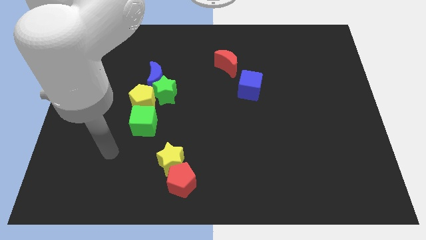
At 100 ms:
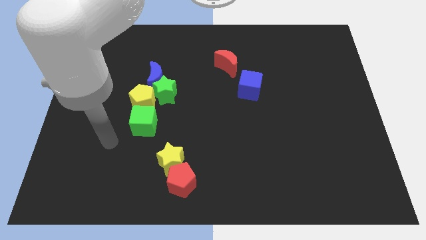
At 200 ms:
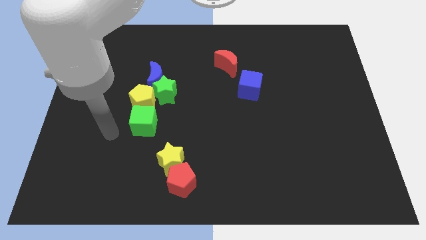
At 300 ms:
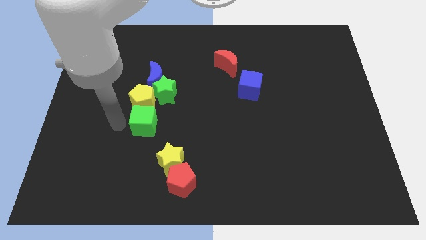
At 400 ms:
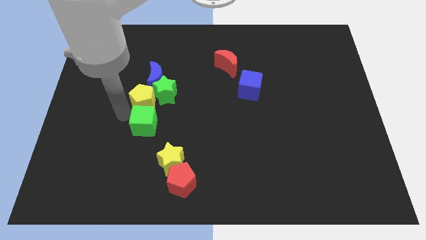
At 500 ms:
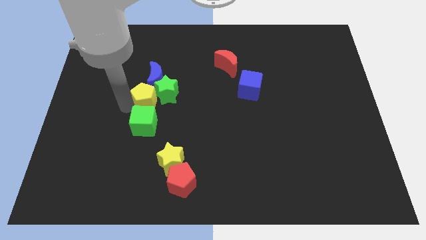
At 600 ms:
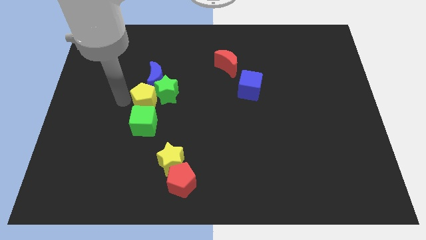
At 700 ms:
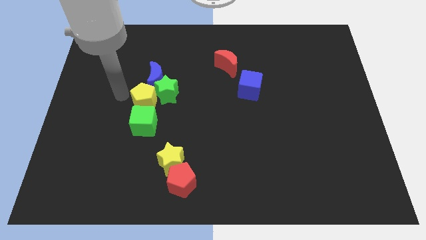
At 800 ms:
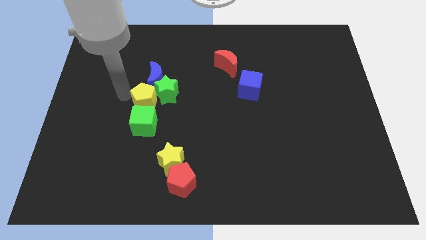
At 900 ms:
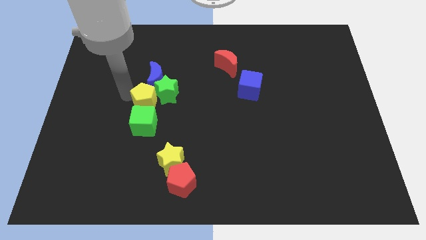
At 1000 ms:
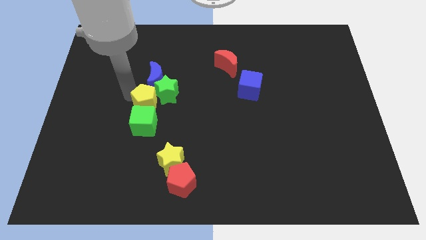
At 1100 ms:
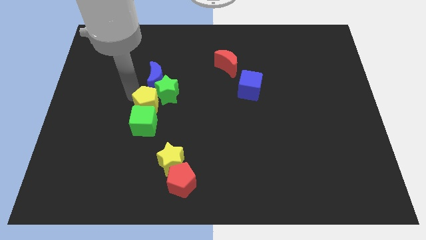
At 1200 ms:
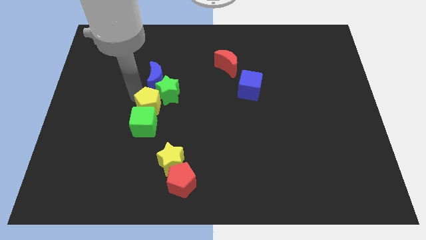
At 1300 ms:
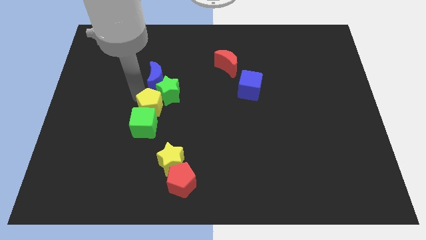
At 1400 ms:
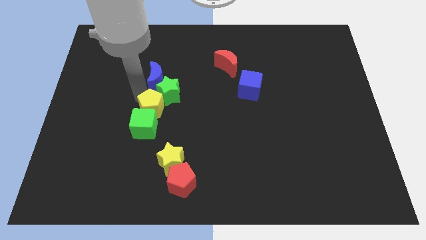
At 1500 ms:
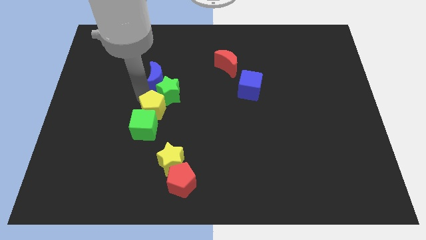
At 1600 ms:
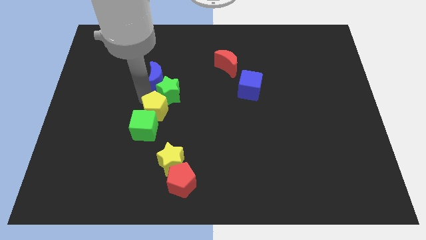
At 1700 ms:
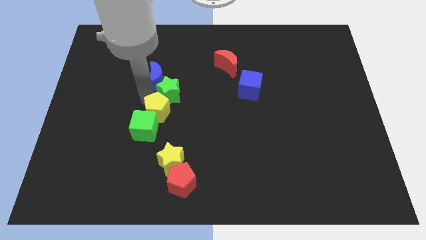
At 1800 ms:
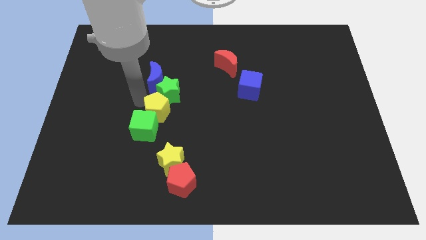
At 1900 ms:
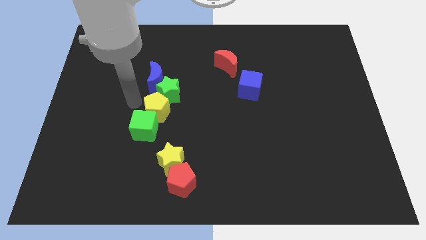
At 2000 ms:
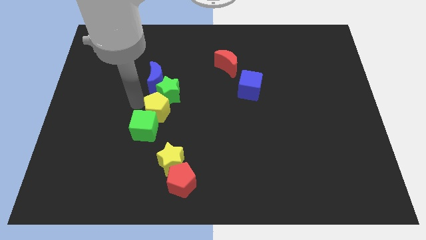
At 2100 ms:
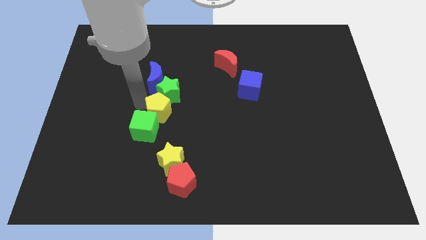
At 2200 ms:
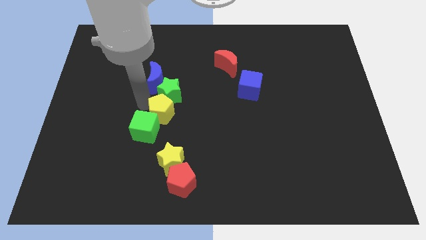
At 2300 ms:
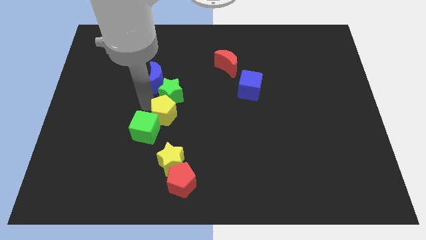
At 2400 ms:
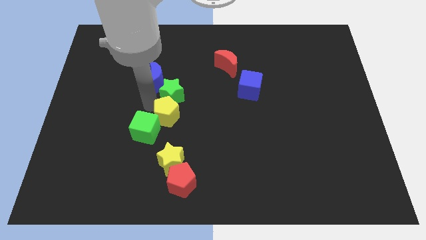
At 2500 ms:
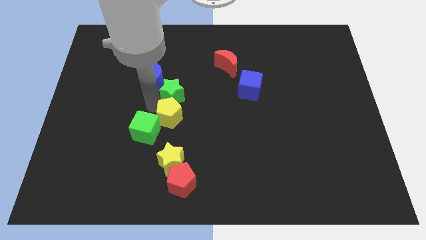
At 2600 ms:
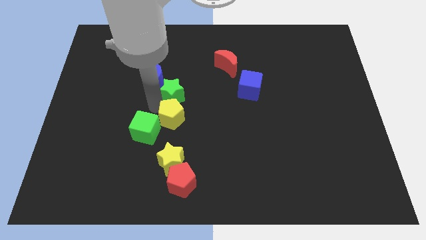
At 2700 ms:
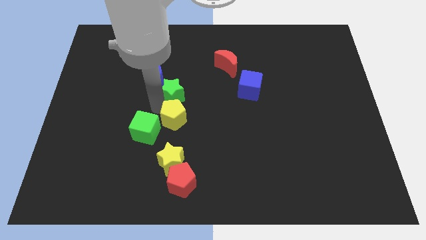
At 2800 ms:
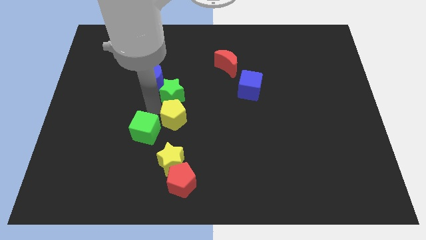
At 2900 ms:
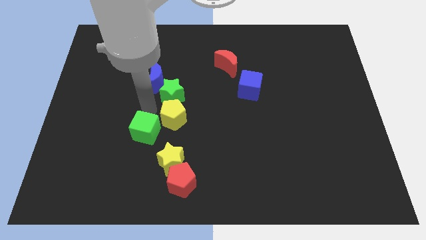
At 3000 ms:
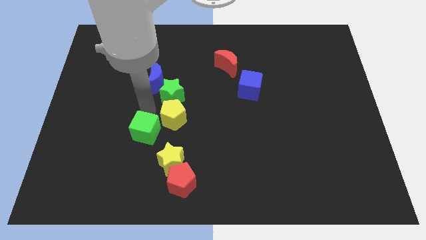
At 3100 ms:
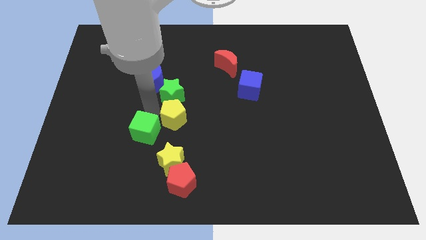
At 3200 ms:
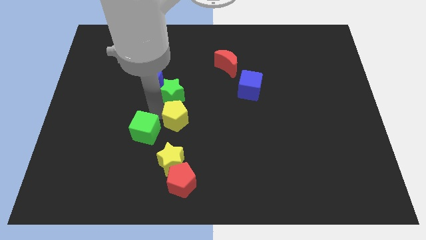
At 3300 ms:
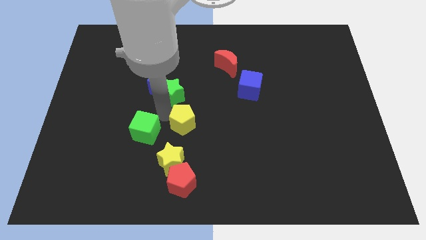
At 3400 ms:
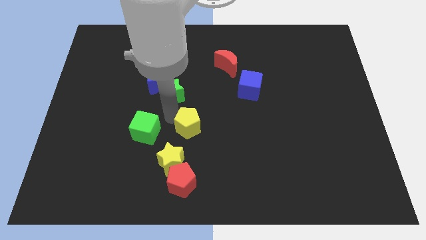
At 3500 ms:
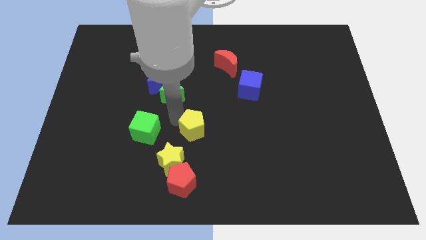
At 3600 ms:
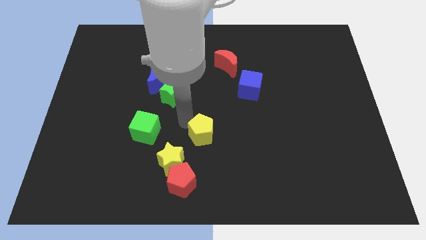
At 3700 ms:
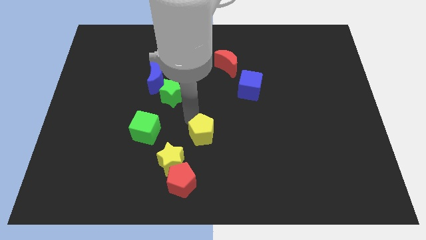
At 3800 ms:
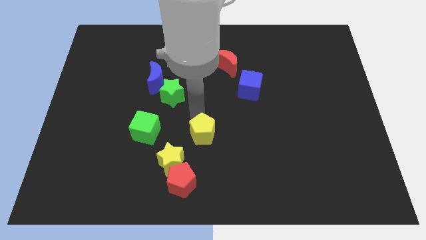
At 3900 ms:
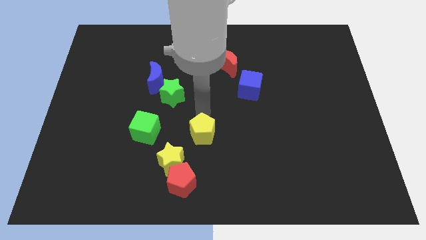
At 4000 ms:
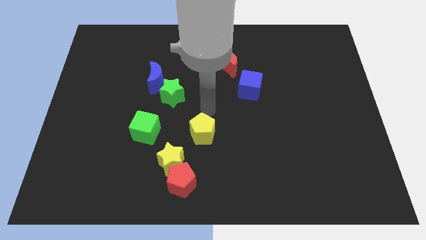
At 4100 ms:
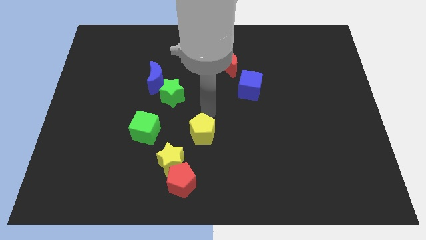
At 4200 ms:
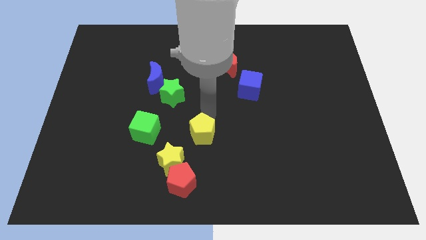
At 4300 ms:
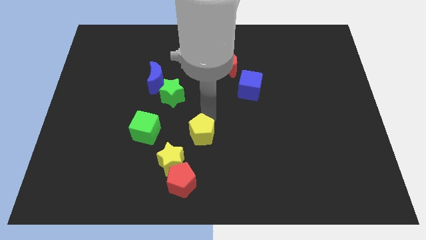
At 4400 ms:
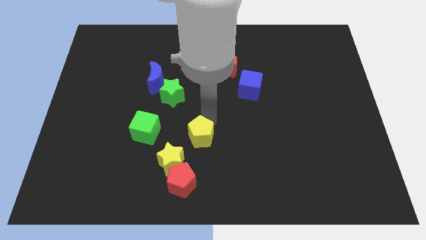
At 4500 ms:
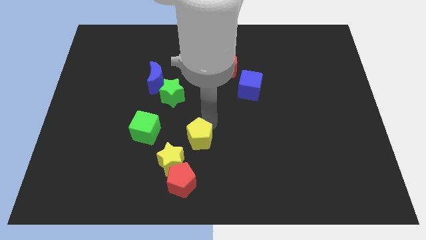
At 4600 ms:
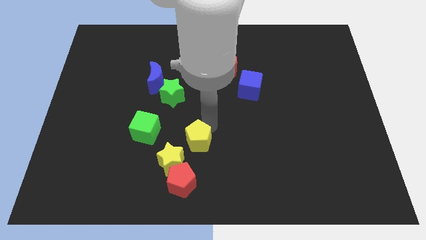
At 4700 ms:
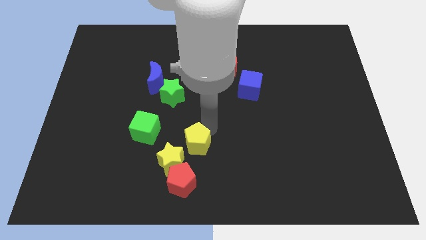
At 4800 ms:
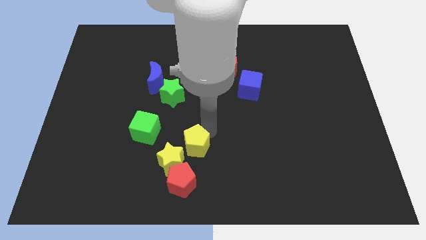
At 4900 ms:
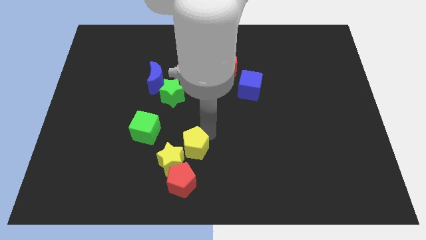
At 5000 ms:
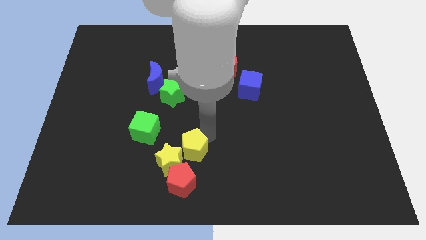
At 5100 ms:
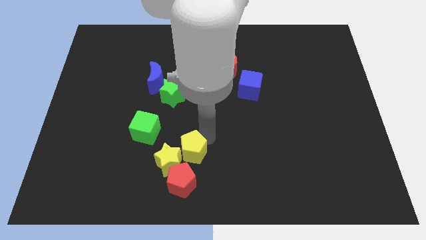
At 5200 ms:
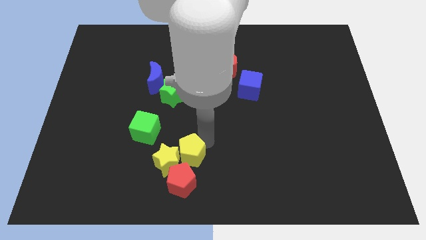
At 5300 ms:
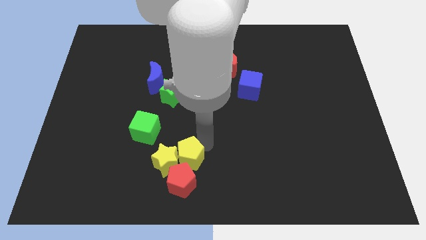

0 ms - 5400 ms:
push the yellow pentagon towards the red pentagon

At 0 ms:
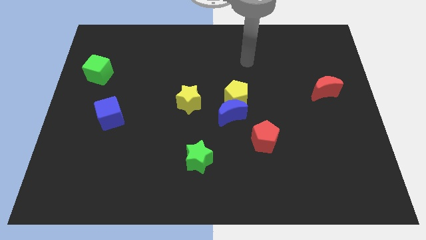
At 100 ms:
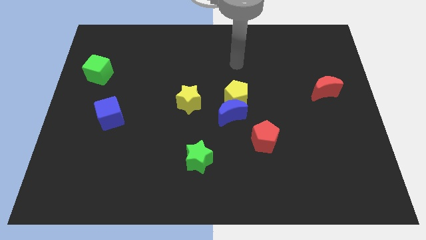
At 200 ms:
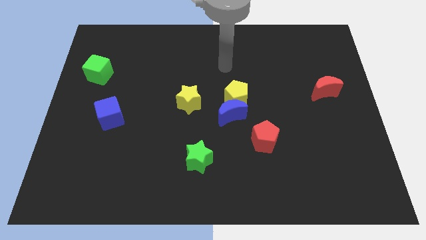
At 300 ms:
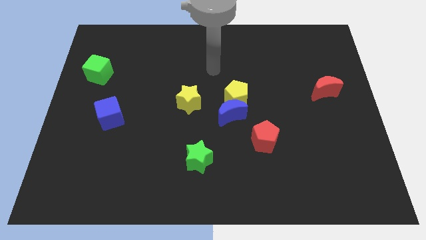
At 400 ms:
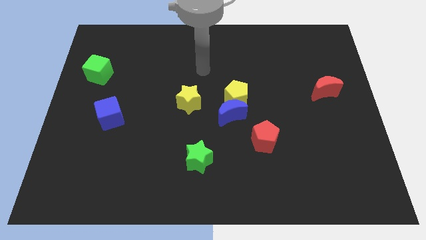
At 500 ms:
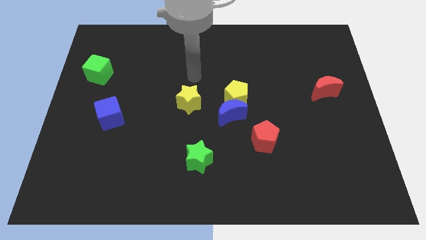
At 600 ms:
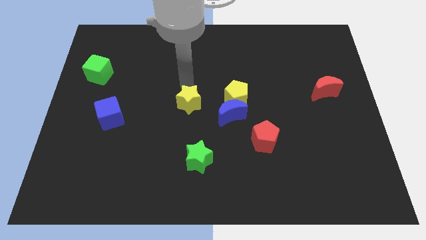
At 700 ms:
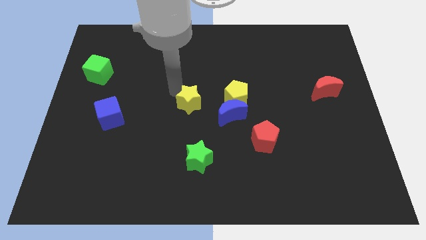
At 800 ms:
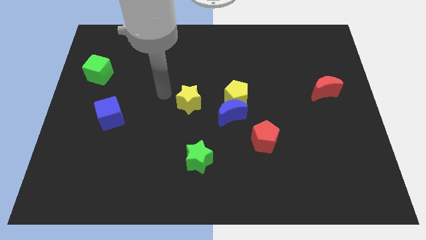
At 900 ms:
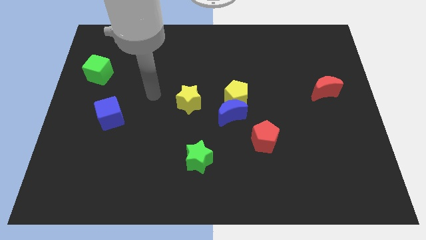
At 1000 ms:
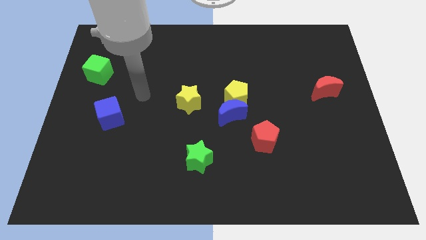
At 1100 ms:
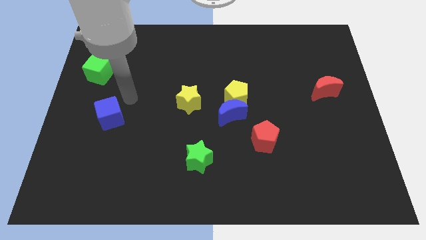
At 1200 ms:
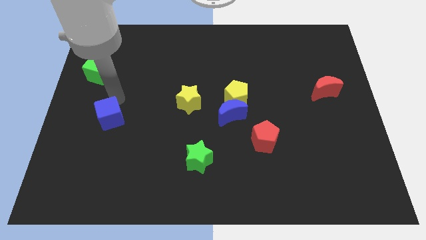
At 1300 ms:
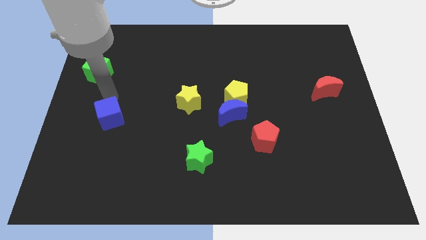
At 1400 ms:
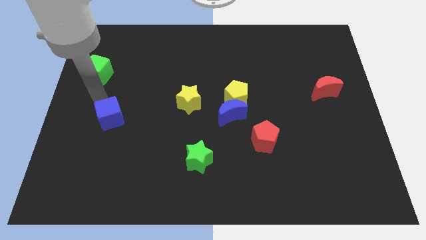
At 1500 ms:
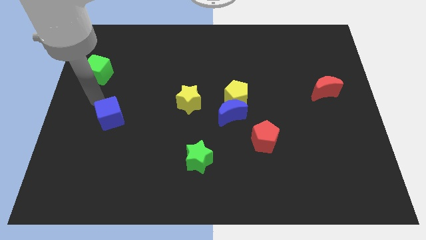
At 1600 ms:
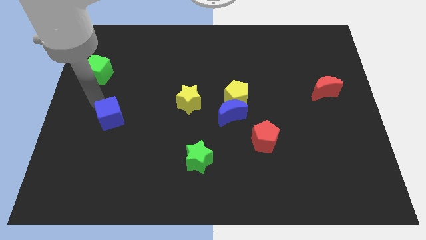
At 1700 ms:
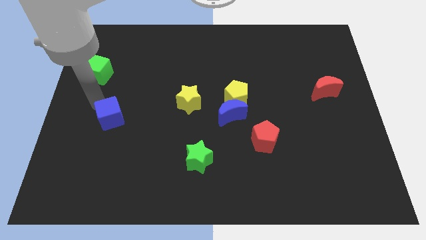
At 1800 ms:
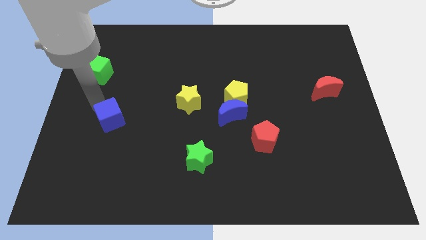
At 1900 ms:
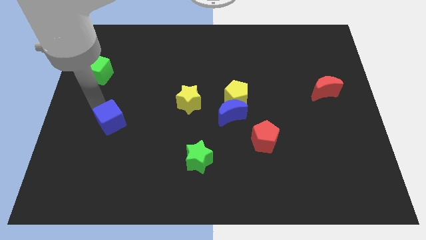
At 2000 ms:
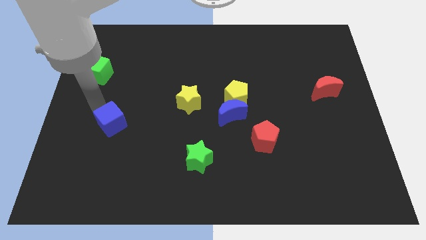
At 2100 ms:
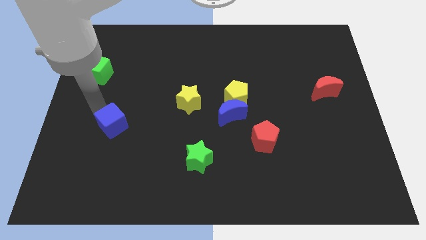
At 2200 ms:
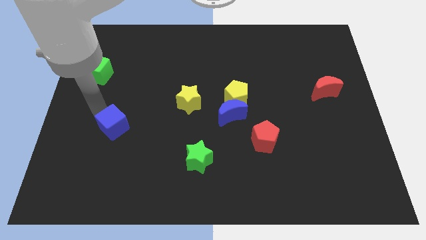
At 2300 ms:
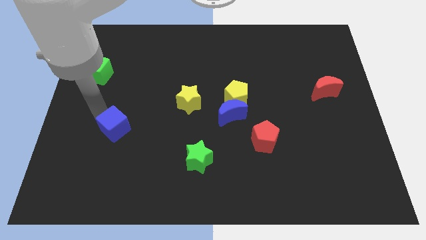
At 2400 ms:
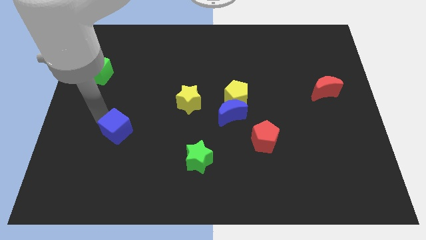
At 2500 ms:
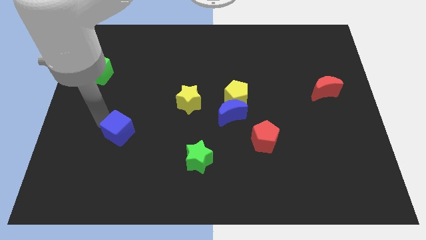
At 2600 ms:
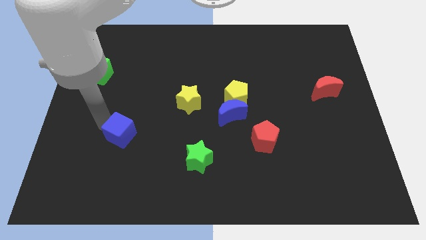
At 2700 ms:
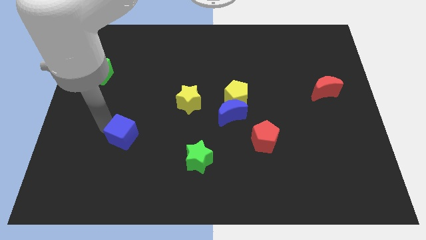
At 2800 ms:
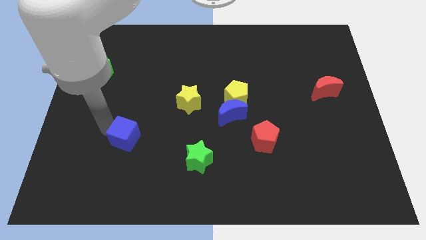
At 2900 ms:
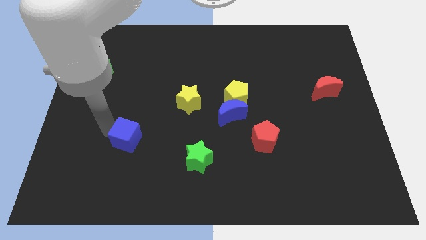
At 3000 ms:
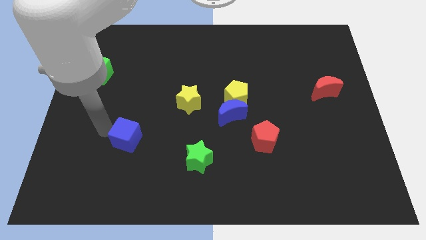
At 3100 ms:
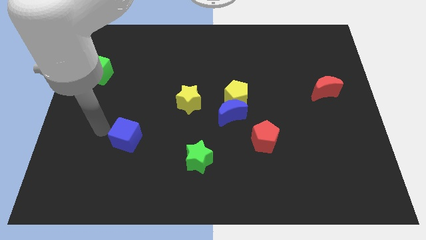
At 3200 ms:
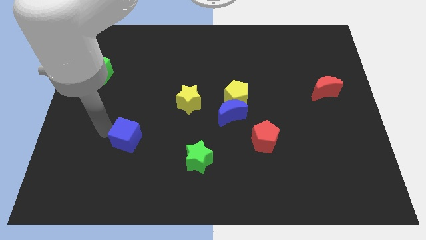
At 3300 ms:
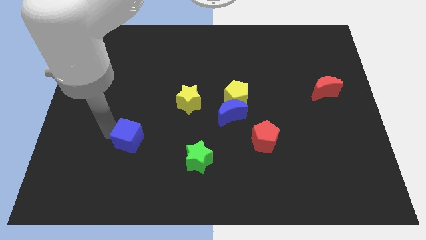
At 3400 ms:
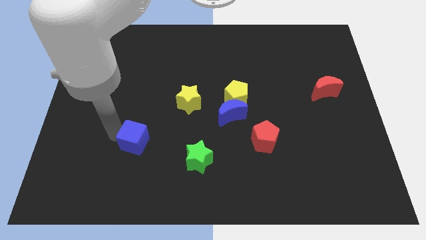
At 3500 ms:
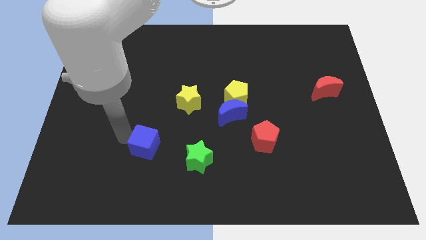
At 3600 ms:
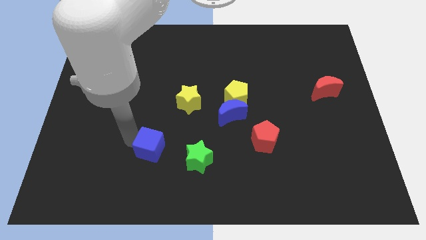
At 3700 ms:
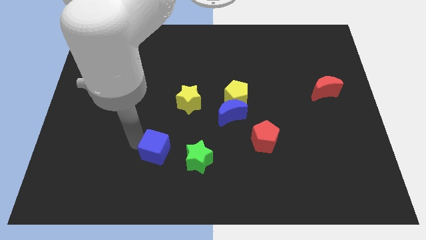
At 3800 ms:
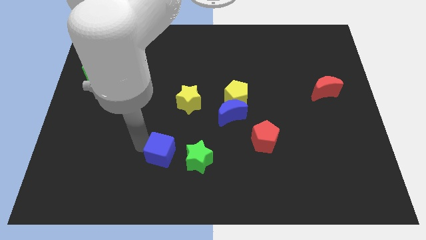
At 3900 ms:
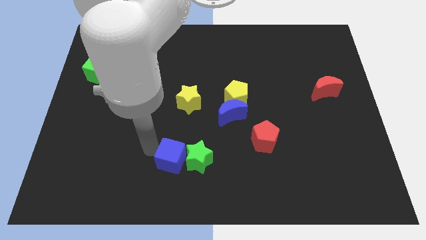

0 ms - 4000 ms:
slide the blue cube to the green star
